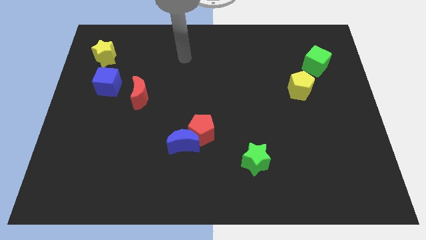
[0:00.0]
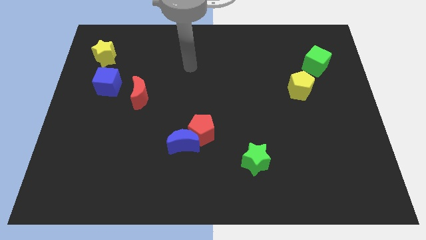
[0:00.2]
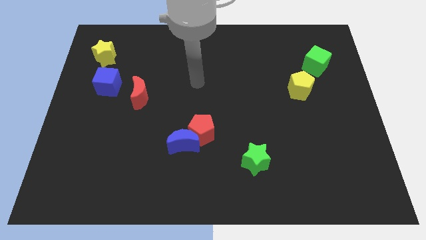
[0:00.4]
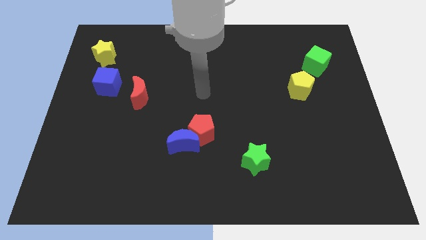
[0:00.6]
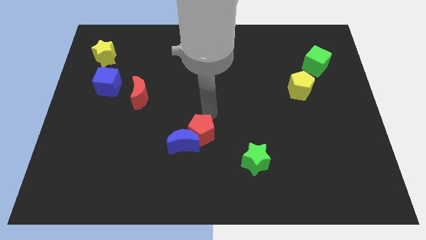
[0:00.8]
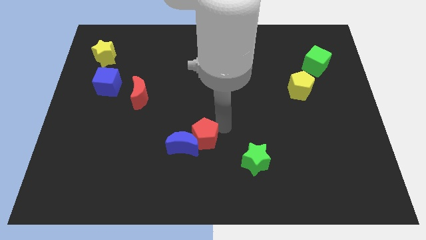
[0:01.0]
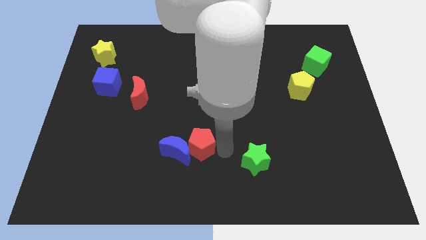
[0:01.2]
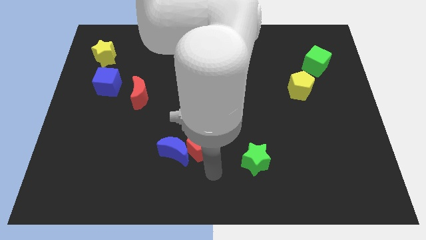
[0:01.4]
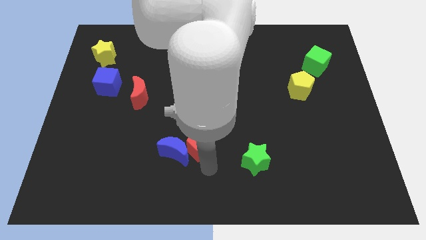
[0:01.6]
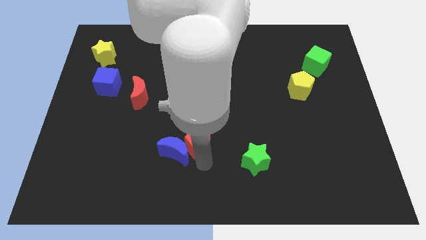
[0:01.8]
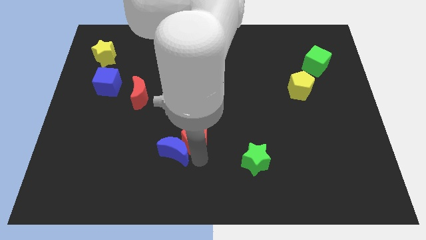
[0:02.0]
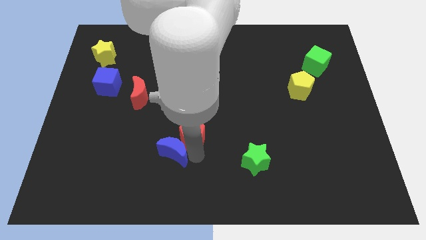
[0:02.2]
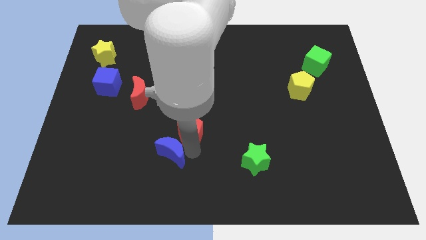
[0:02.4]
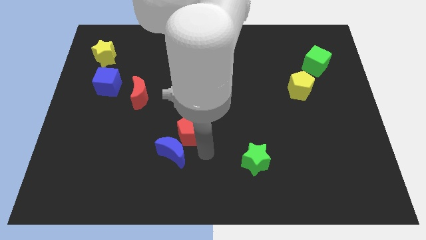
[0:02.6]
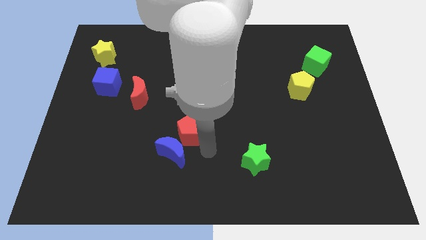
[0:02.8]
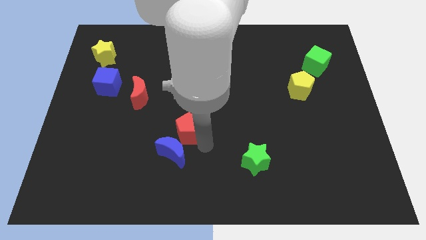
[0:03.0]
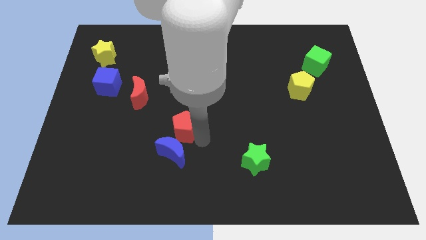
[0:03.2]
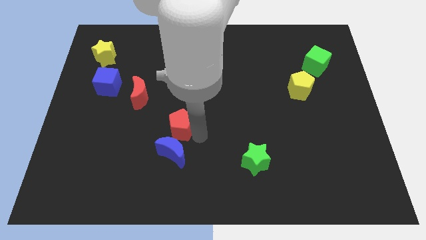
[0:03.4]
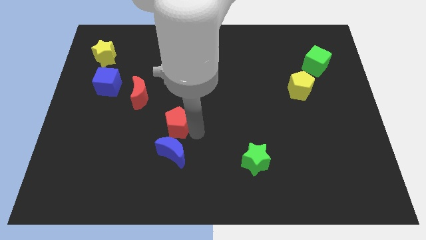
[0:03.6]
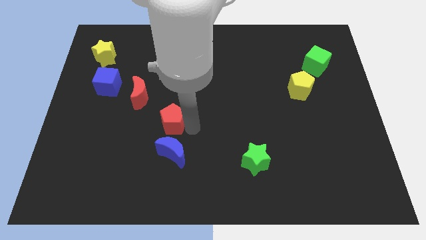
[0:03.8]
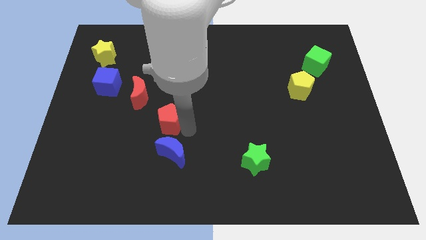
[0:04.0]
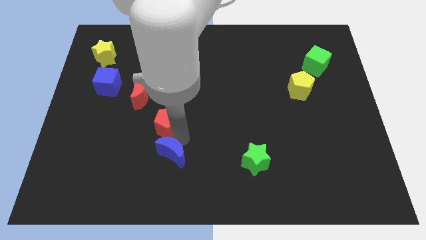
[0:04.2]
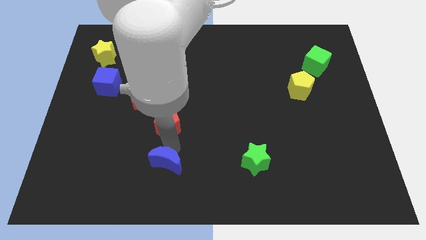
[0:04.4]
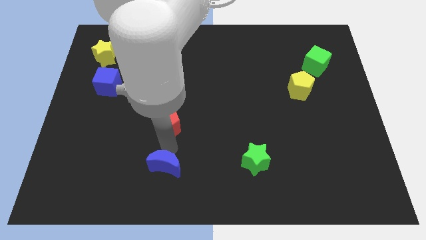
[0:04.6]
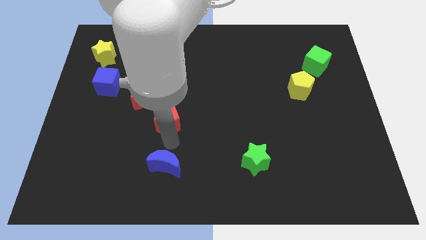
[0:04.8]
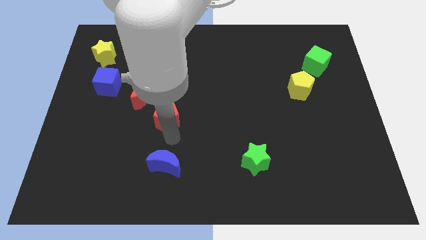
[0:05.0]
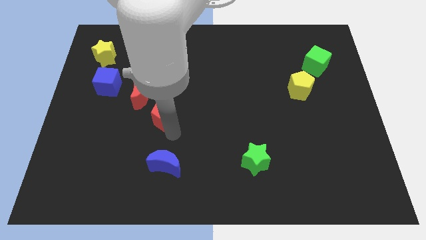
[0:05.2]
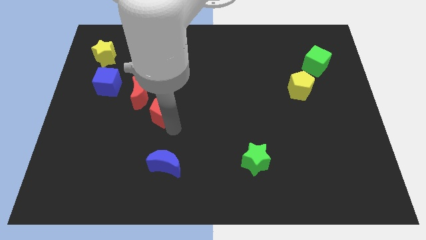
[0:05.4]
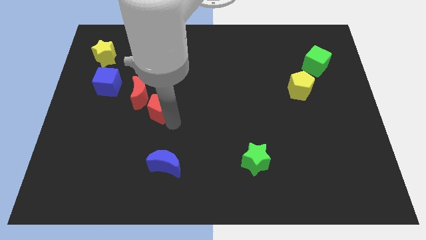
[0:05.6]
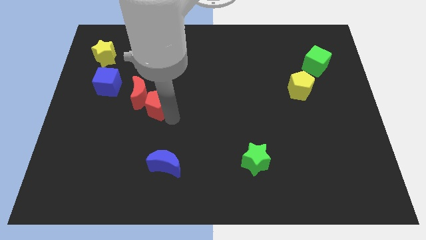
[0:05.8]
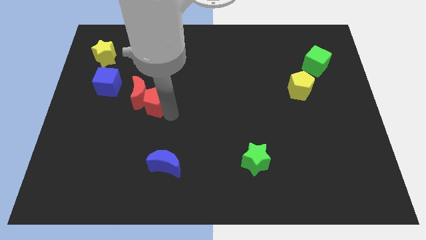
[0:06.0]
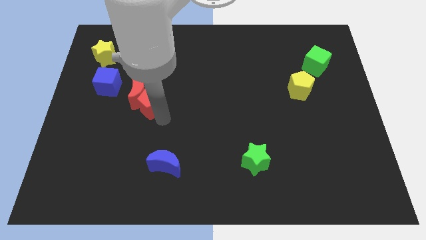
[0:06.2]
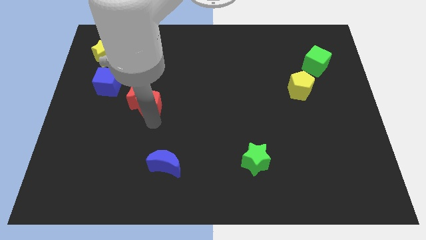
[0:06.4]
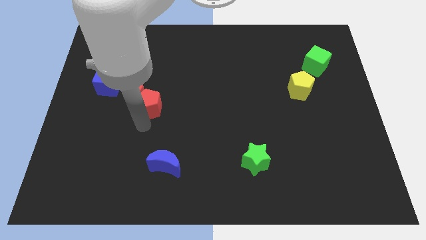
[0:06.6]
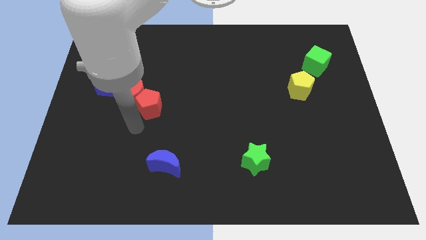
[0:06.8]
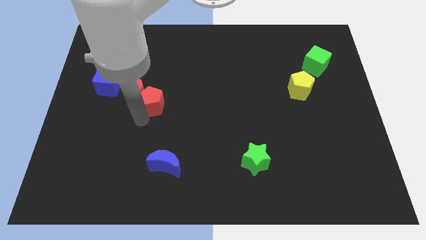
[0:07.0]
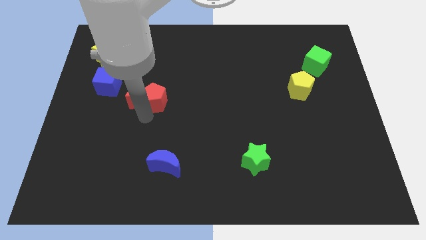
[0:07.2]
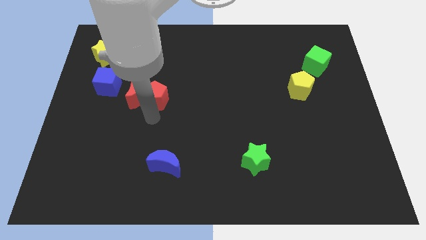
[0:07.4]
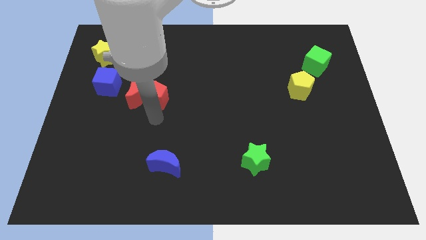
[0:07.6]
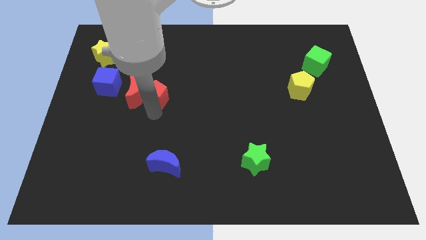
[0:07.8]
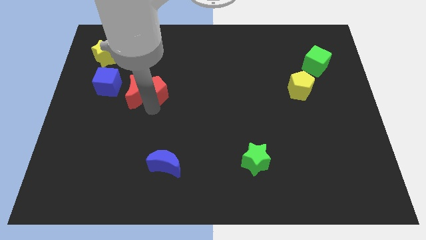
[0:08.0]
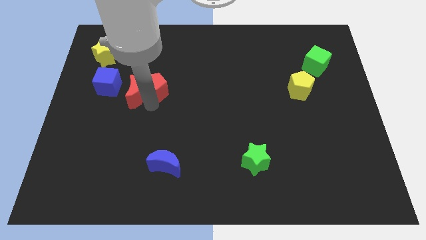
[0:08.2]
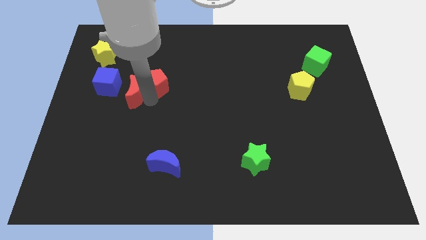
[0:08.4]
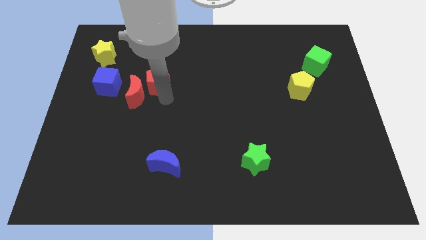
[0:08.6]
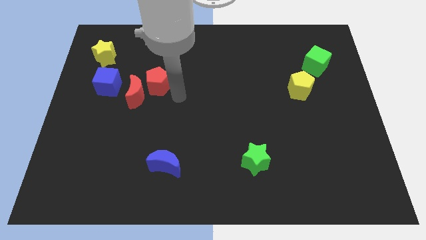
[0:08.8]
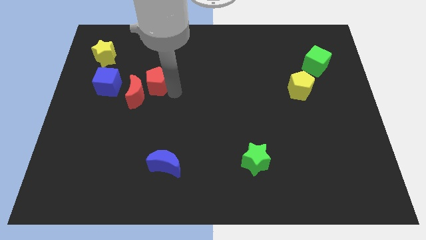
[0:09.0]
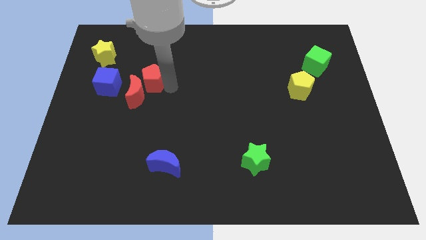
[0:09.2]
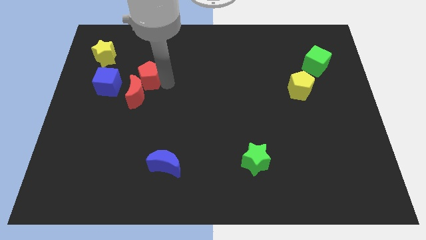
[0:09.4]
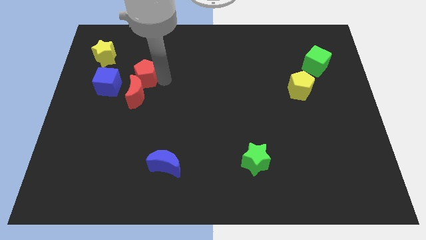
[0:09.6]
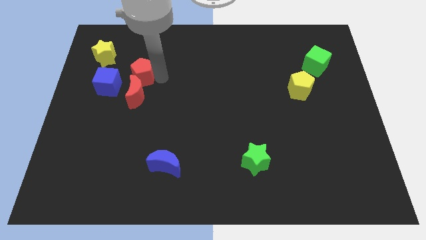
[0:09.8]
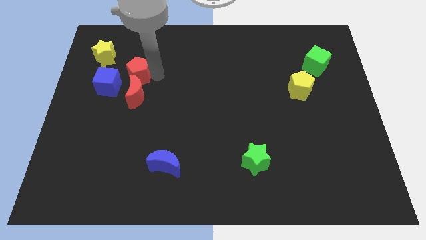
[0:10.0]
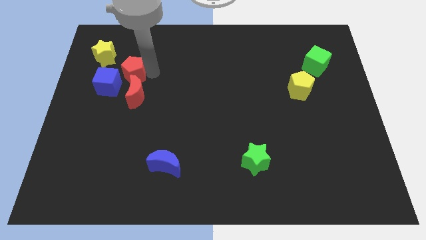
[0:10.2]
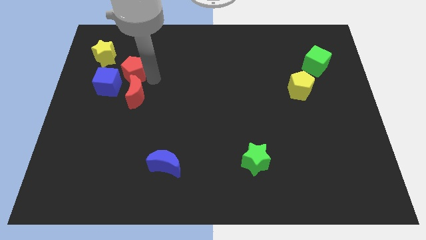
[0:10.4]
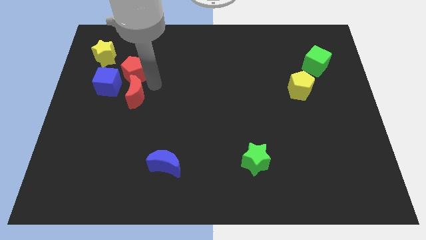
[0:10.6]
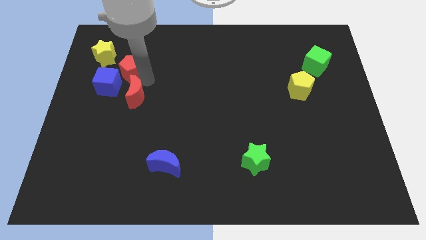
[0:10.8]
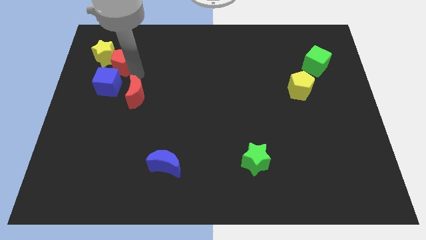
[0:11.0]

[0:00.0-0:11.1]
put the red pentagon to the yellow star

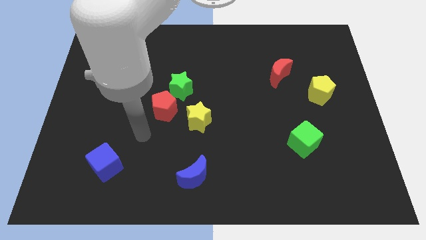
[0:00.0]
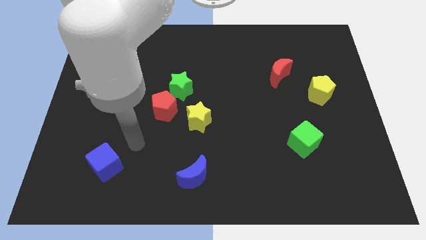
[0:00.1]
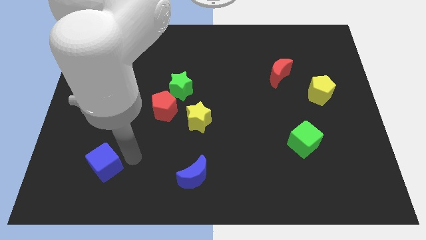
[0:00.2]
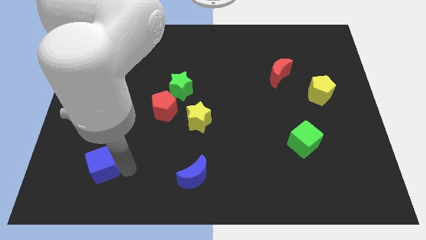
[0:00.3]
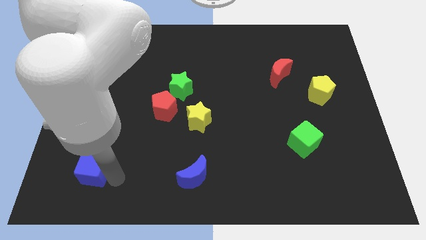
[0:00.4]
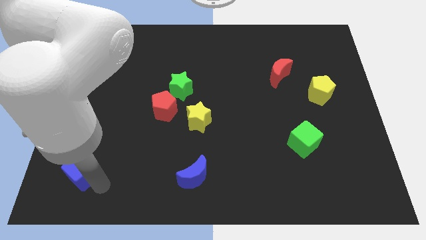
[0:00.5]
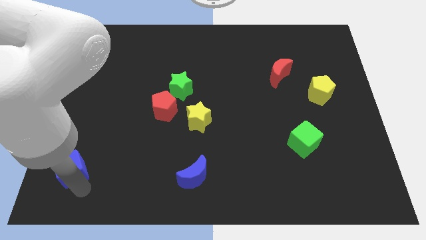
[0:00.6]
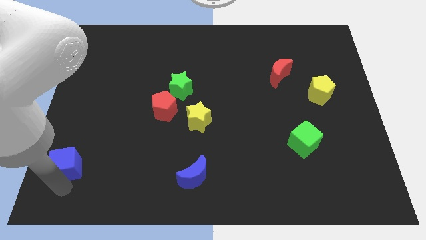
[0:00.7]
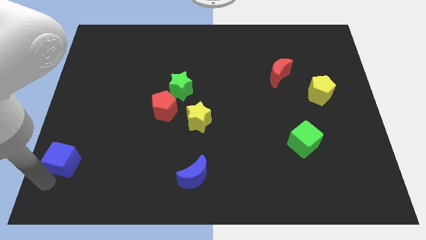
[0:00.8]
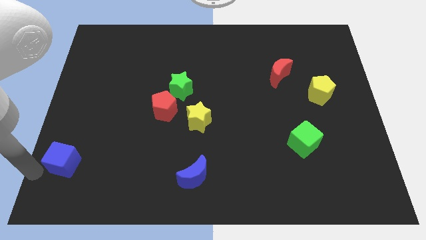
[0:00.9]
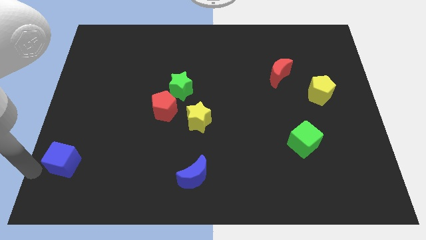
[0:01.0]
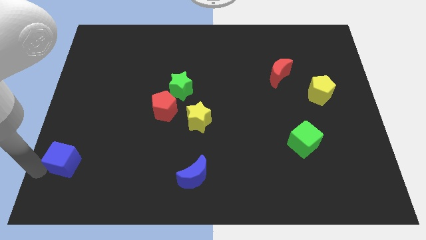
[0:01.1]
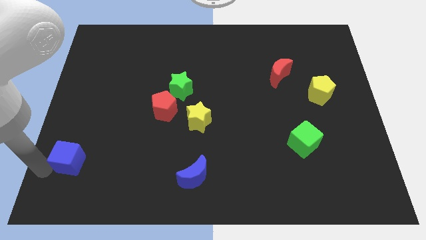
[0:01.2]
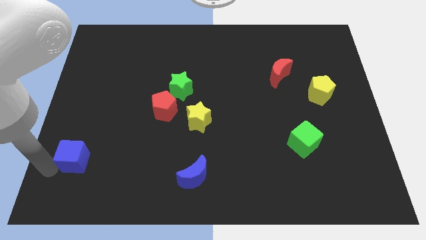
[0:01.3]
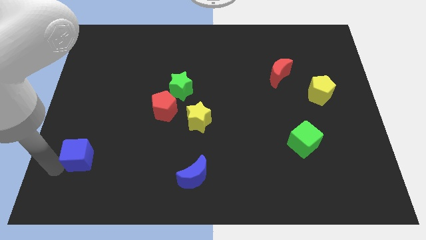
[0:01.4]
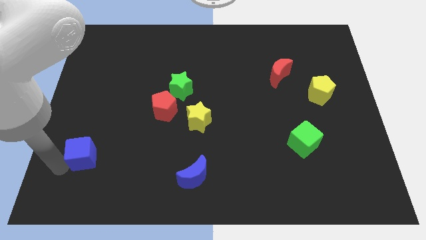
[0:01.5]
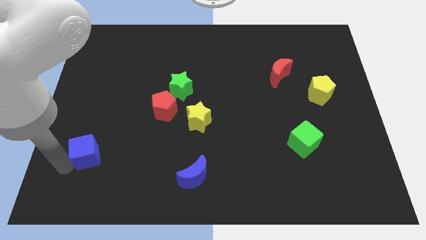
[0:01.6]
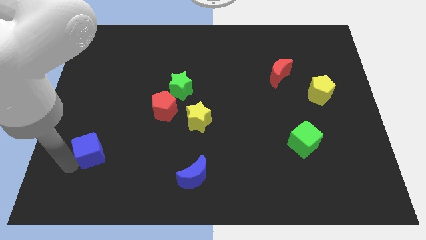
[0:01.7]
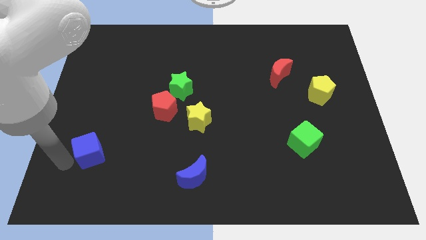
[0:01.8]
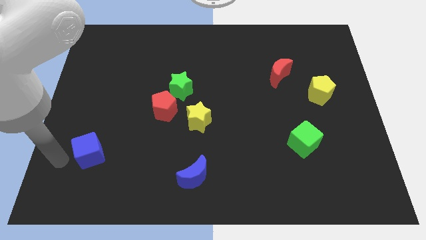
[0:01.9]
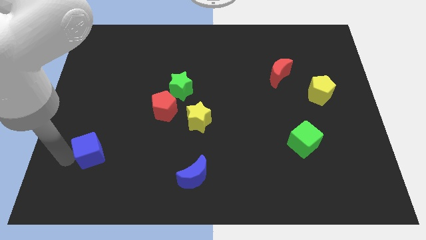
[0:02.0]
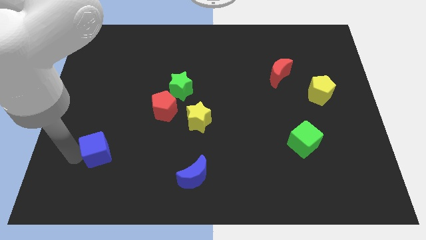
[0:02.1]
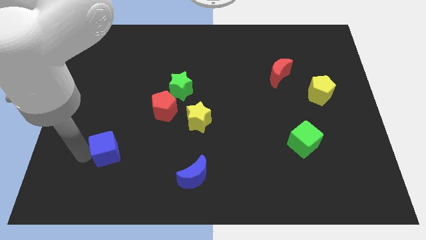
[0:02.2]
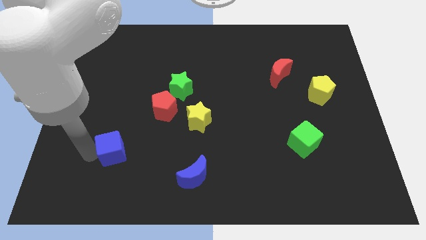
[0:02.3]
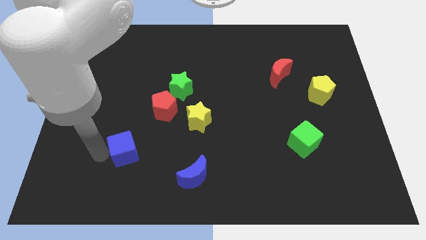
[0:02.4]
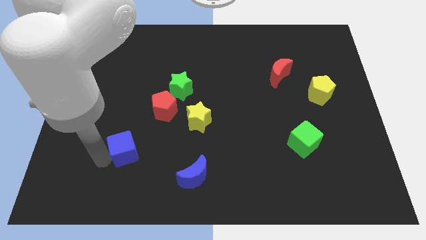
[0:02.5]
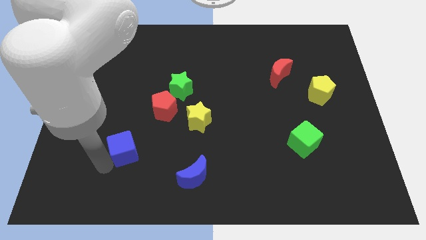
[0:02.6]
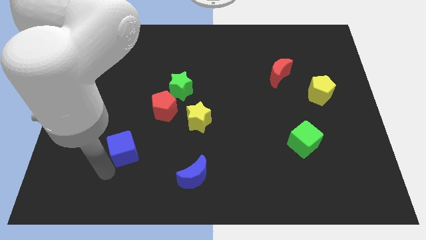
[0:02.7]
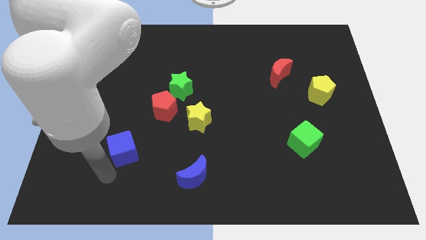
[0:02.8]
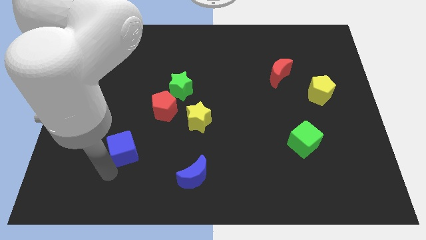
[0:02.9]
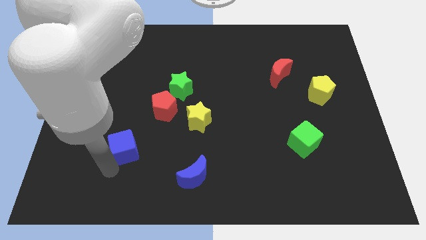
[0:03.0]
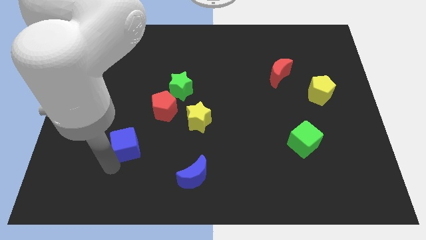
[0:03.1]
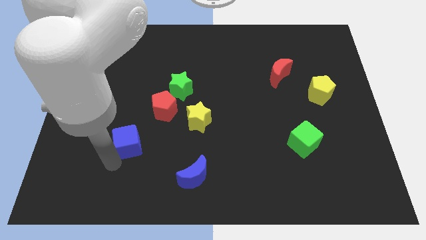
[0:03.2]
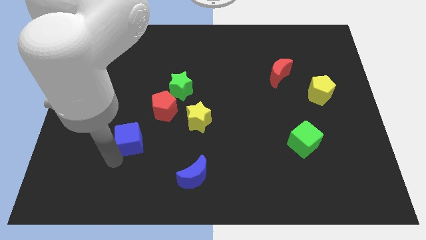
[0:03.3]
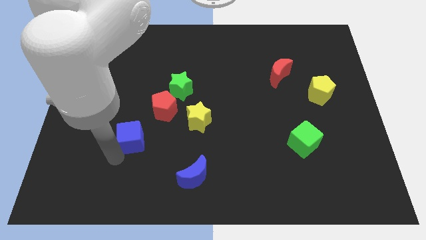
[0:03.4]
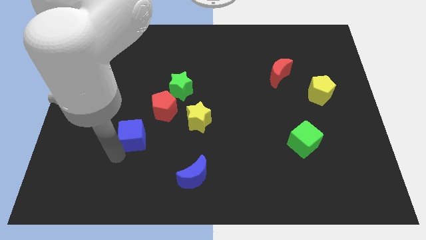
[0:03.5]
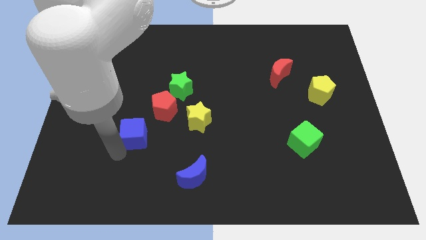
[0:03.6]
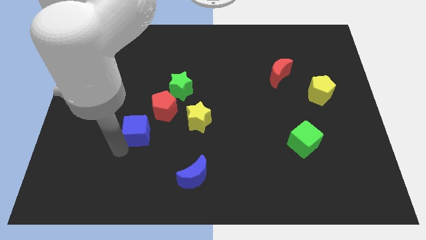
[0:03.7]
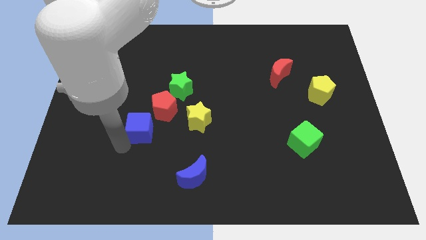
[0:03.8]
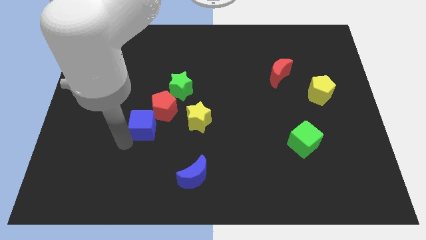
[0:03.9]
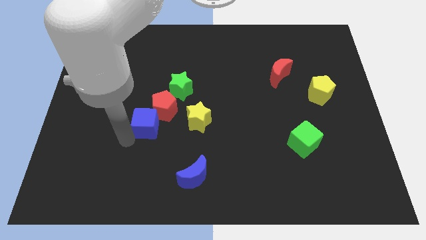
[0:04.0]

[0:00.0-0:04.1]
move the blue cube close to the red pentagon
